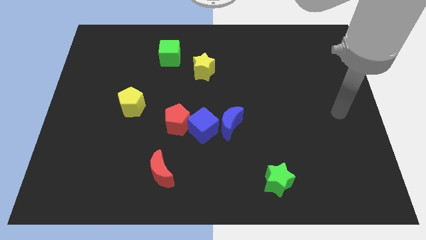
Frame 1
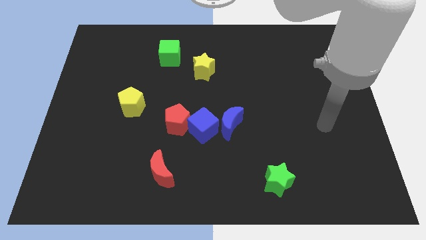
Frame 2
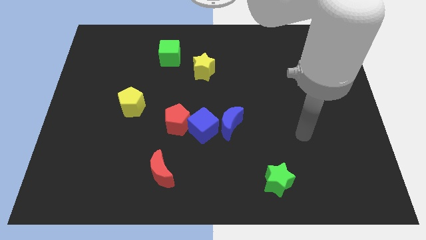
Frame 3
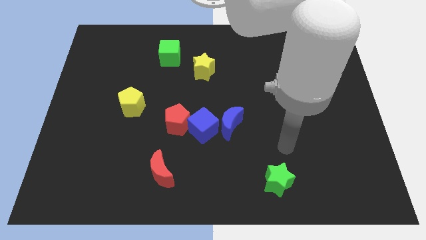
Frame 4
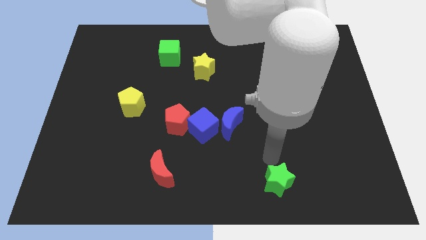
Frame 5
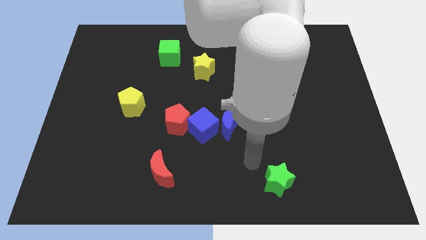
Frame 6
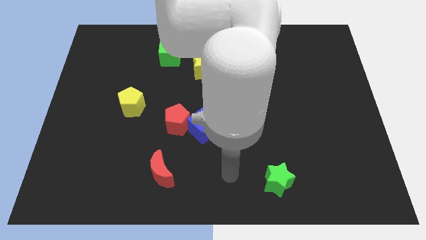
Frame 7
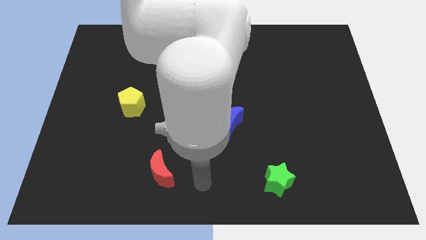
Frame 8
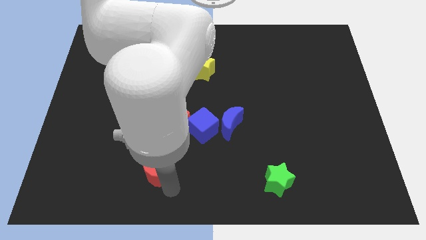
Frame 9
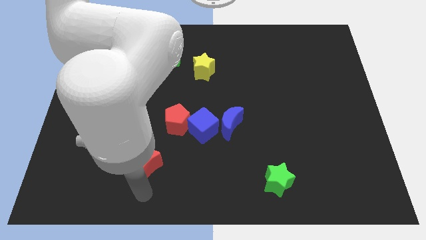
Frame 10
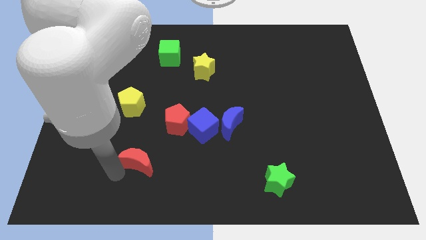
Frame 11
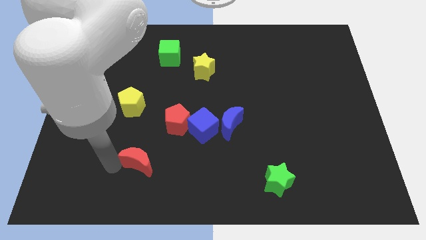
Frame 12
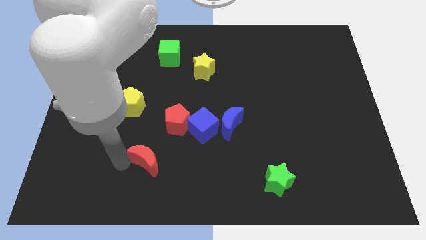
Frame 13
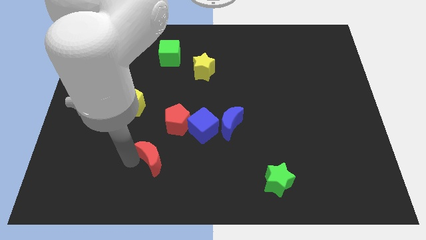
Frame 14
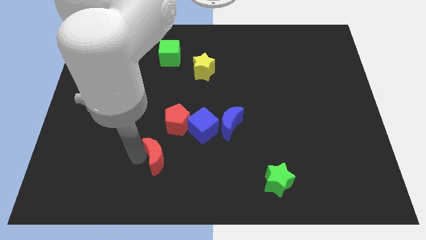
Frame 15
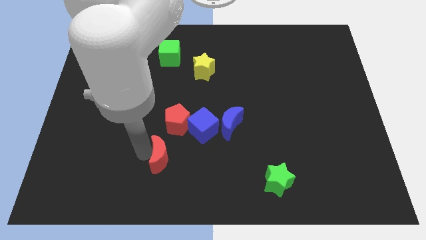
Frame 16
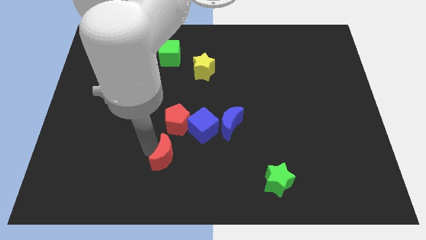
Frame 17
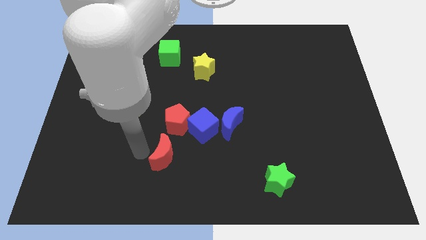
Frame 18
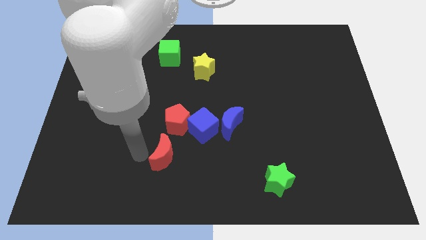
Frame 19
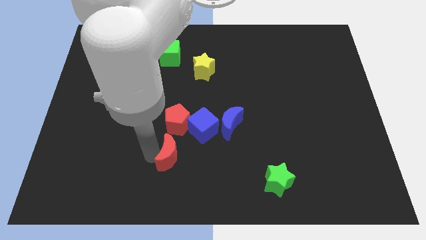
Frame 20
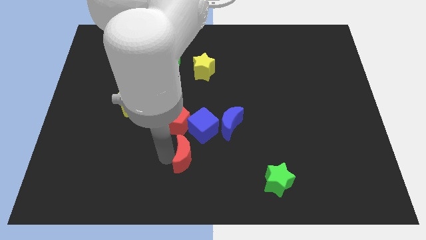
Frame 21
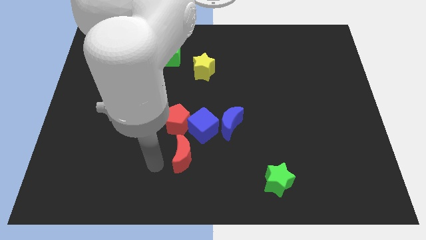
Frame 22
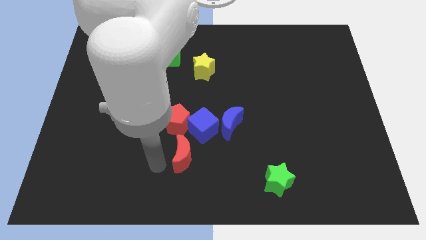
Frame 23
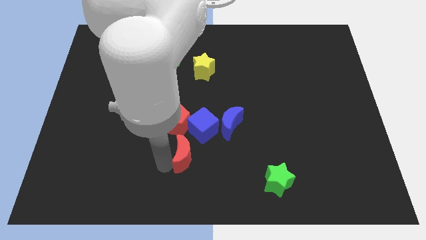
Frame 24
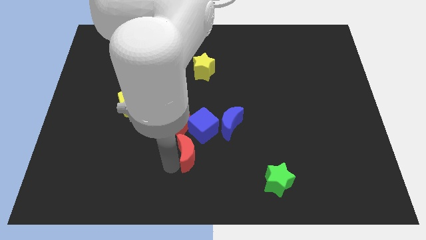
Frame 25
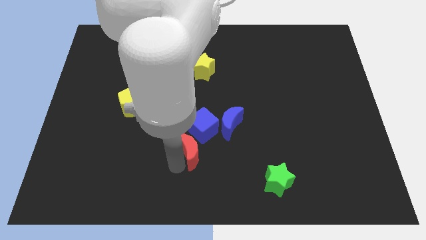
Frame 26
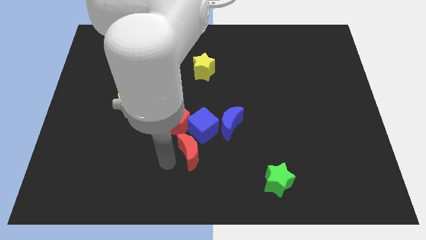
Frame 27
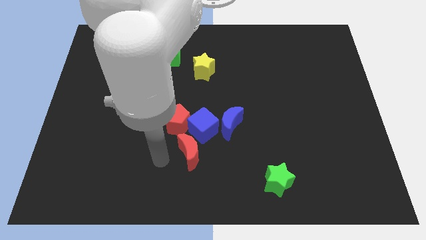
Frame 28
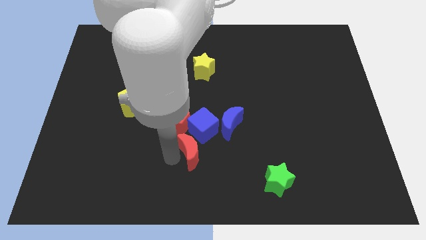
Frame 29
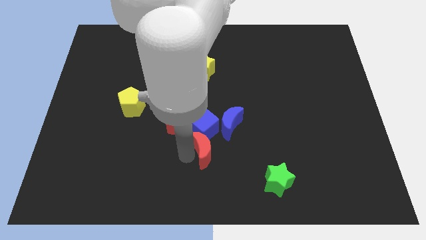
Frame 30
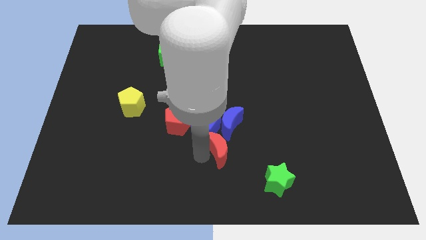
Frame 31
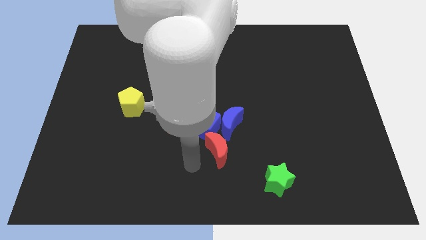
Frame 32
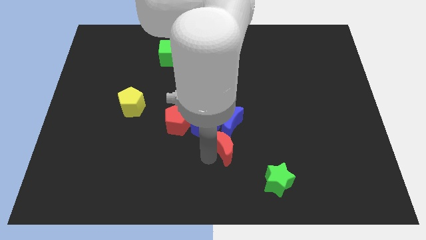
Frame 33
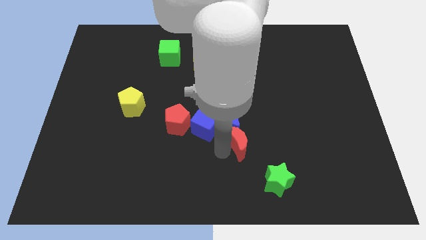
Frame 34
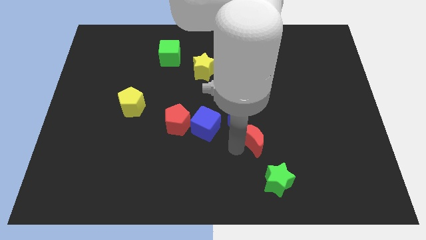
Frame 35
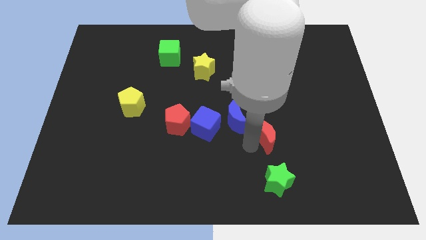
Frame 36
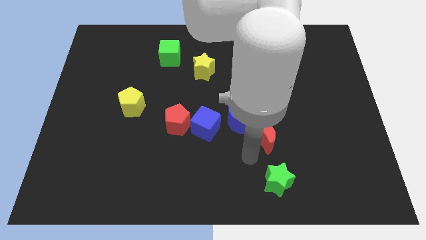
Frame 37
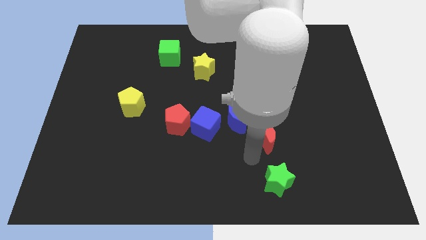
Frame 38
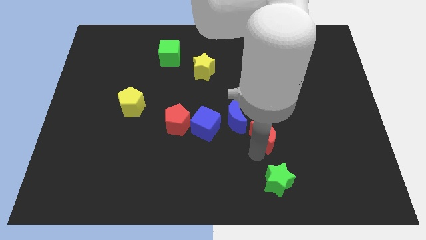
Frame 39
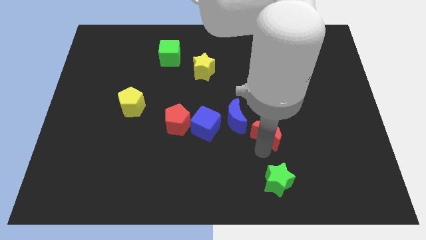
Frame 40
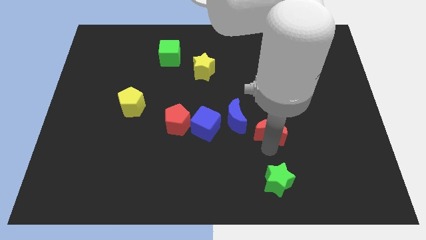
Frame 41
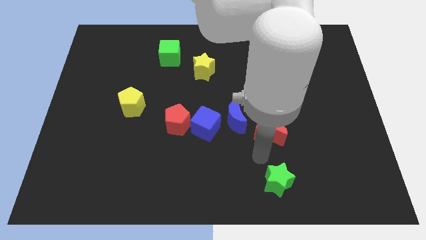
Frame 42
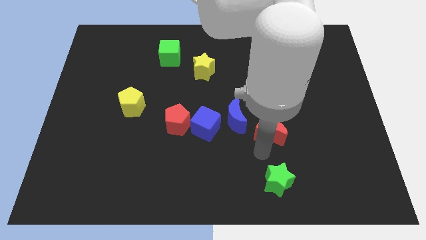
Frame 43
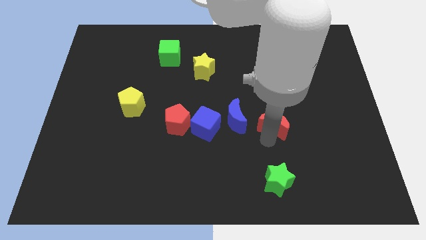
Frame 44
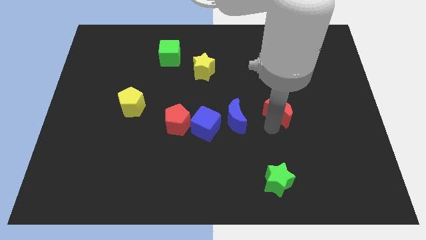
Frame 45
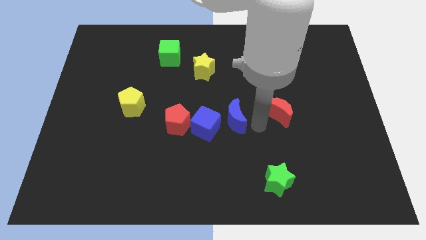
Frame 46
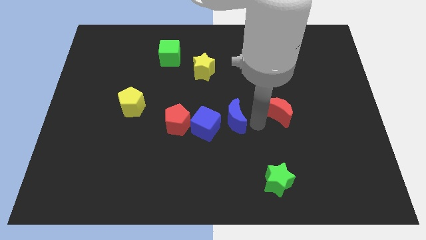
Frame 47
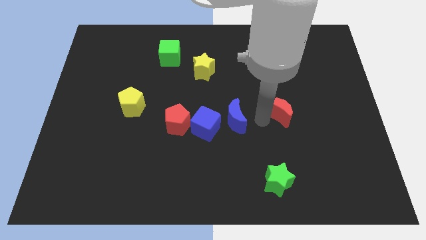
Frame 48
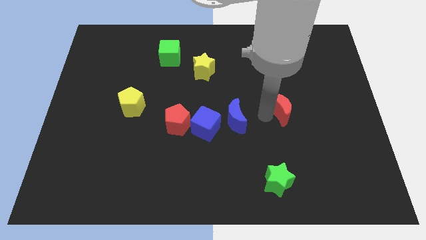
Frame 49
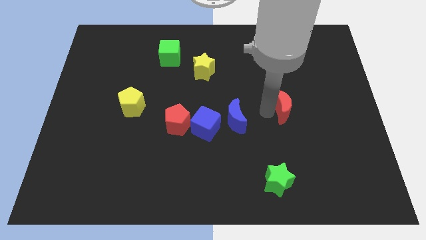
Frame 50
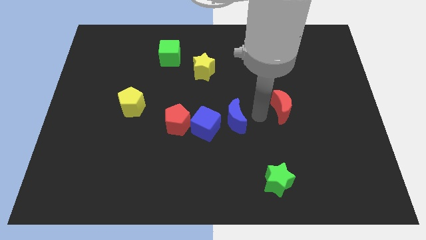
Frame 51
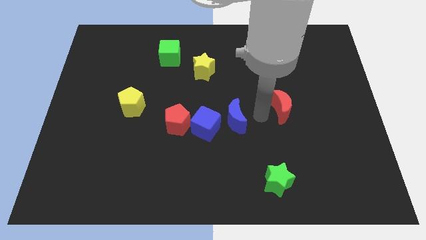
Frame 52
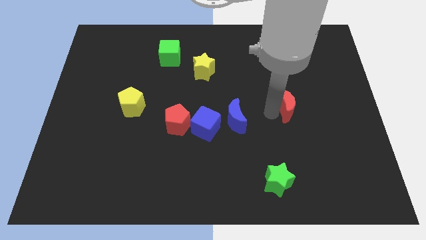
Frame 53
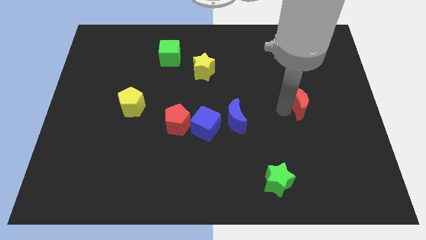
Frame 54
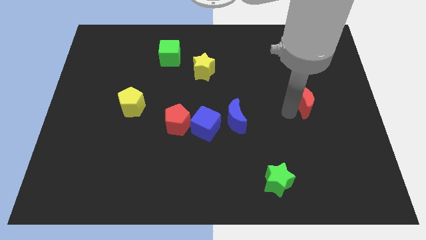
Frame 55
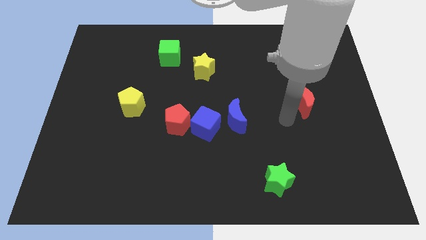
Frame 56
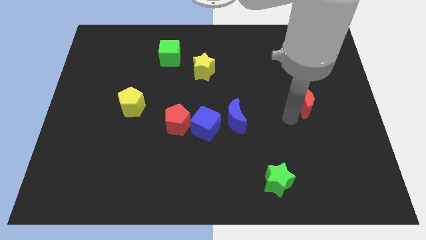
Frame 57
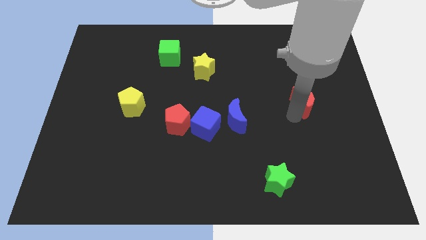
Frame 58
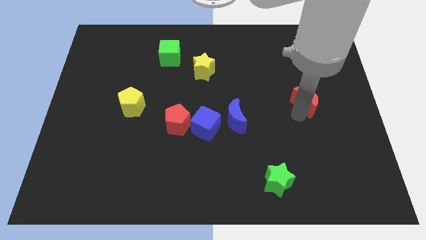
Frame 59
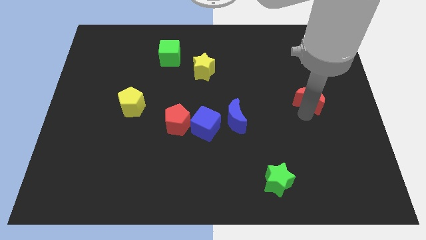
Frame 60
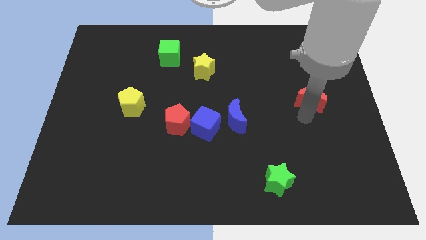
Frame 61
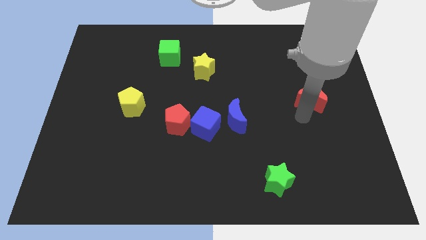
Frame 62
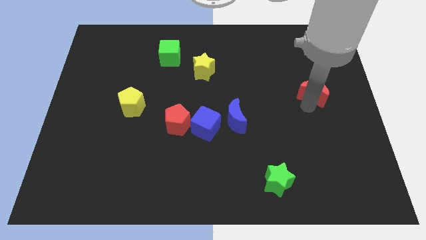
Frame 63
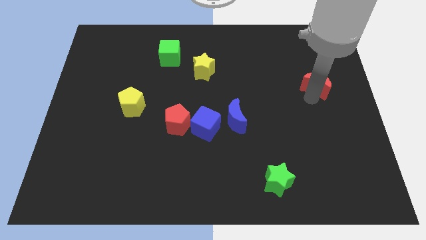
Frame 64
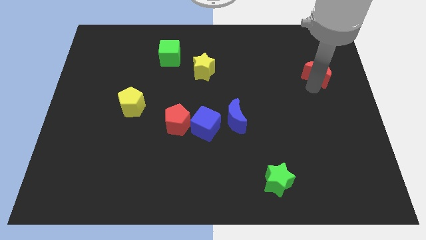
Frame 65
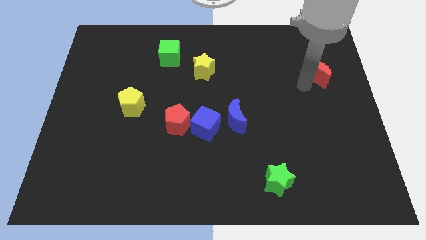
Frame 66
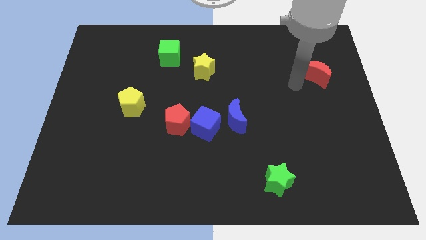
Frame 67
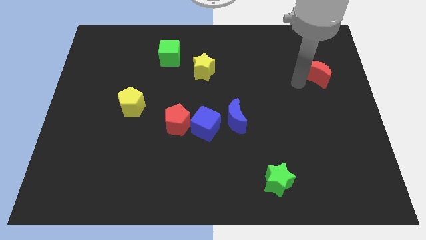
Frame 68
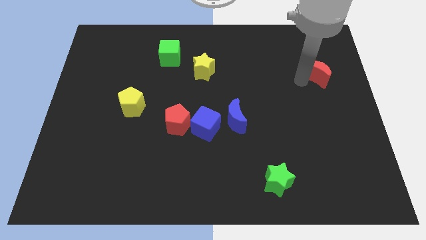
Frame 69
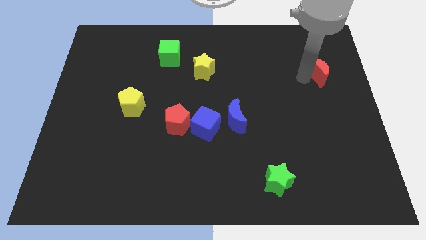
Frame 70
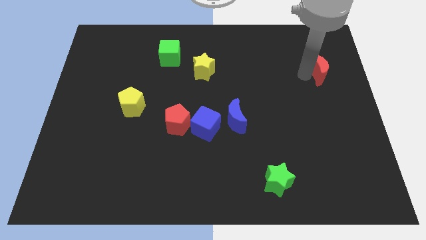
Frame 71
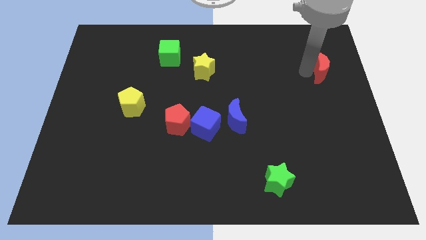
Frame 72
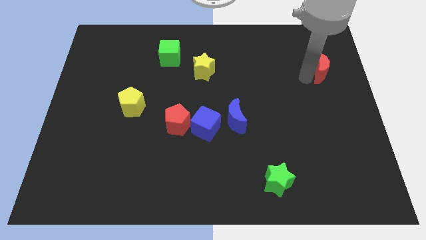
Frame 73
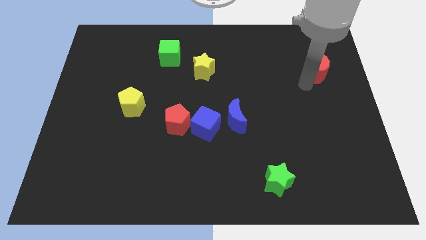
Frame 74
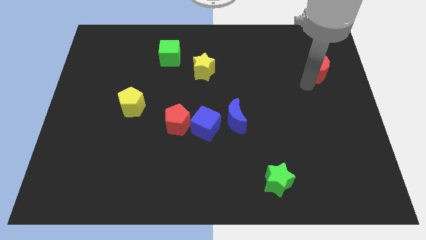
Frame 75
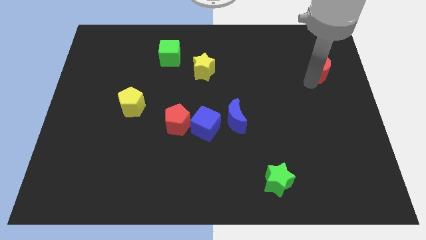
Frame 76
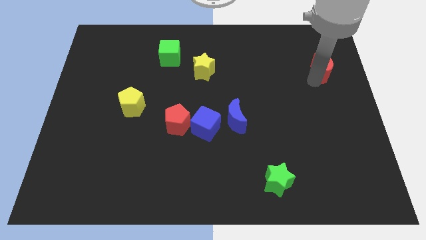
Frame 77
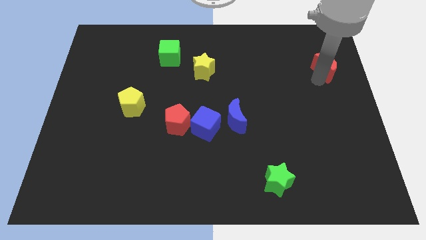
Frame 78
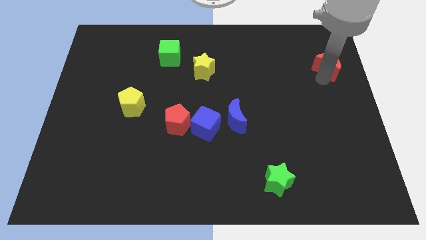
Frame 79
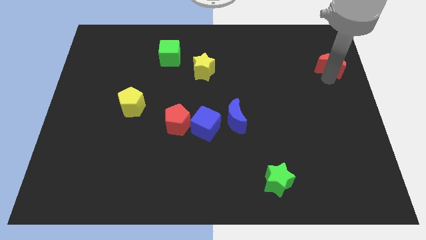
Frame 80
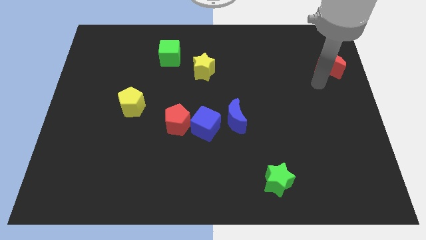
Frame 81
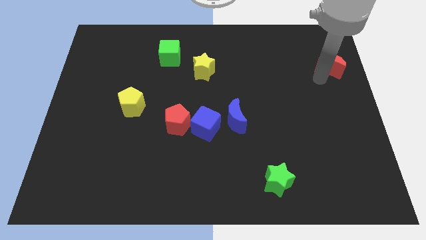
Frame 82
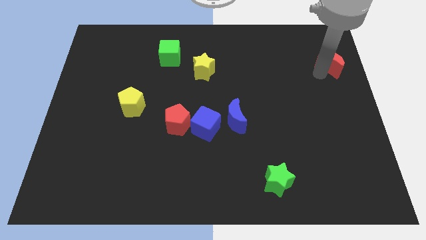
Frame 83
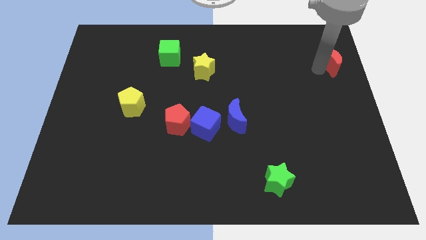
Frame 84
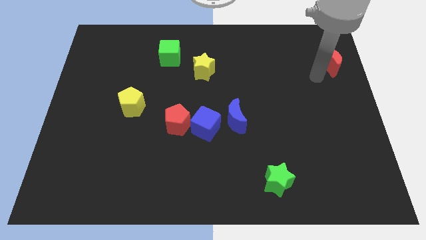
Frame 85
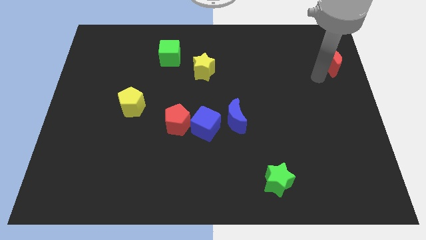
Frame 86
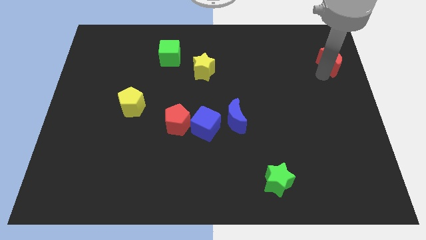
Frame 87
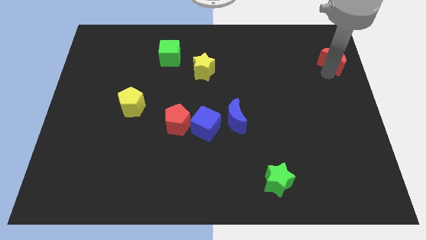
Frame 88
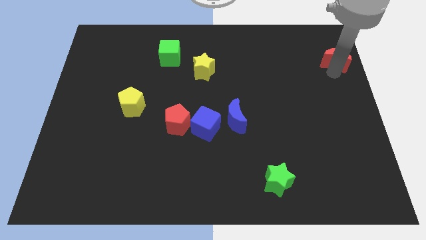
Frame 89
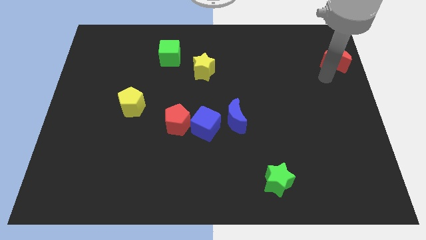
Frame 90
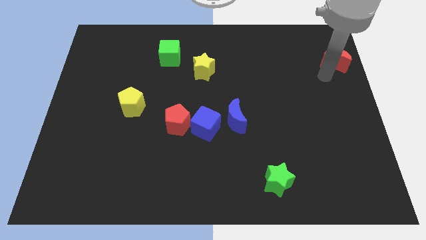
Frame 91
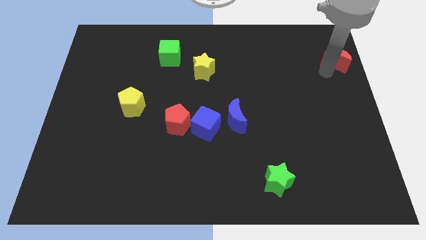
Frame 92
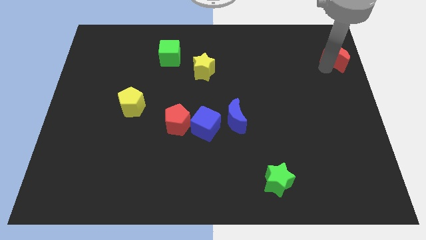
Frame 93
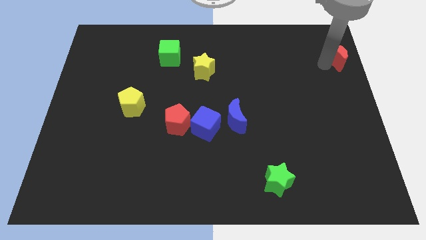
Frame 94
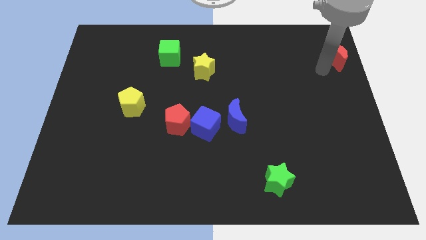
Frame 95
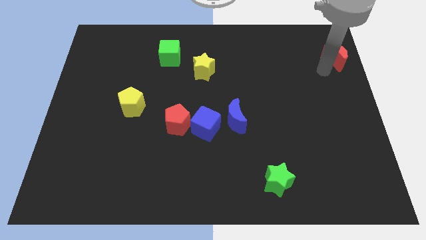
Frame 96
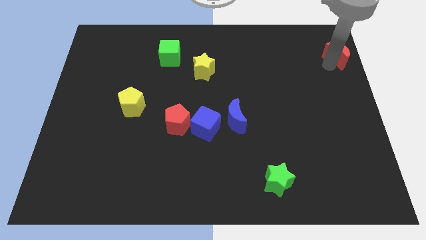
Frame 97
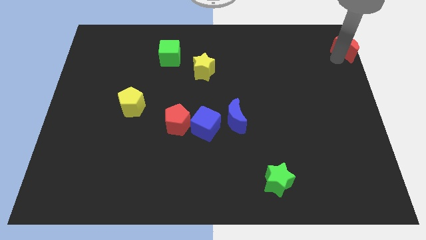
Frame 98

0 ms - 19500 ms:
push the red moon to the top right corner
